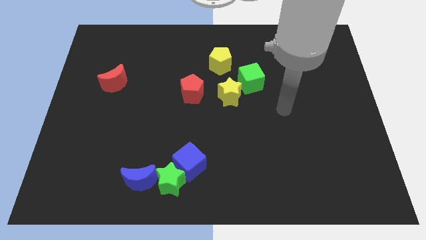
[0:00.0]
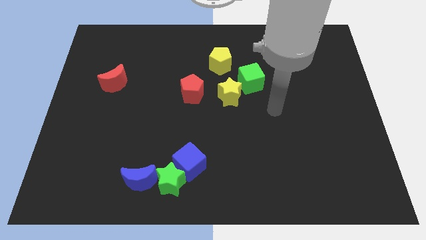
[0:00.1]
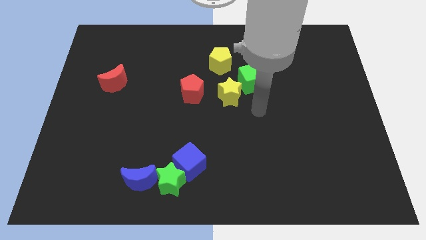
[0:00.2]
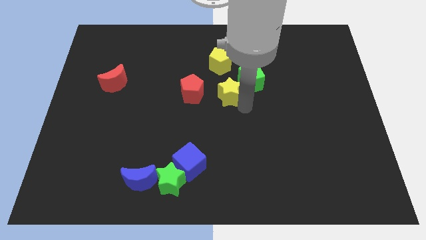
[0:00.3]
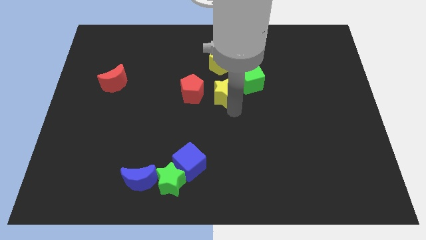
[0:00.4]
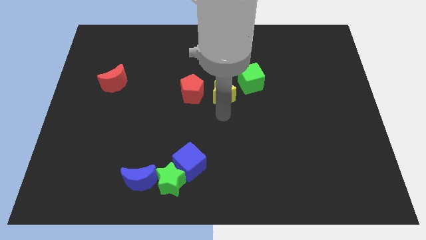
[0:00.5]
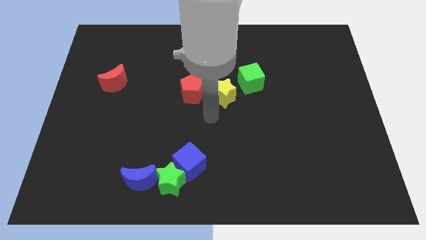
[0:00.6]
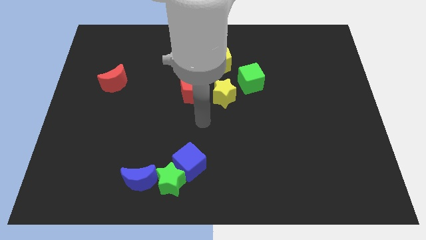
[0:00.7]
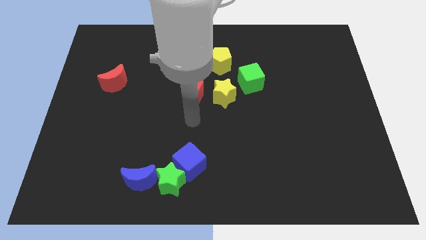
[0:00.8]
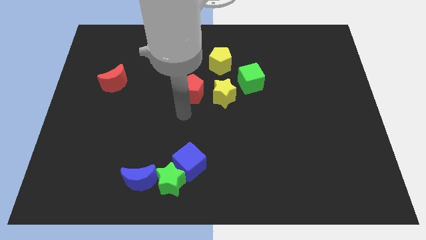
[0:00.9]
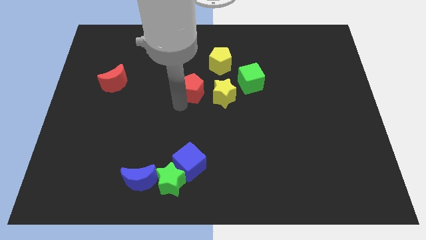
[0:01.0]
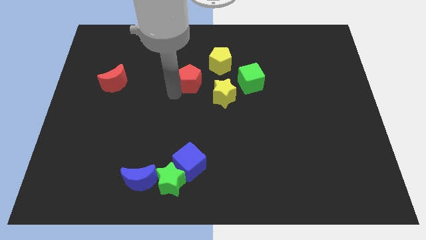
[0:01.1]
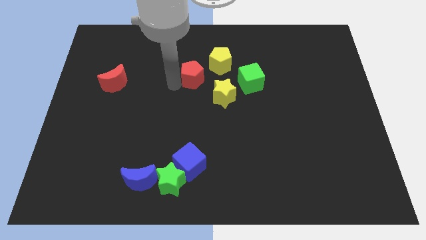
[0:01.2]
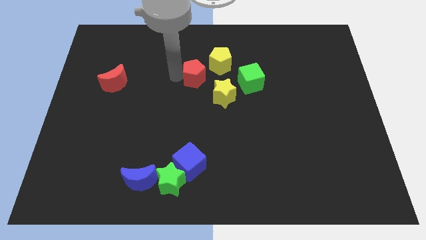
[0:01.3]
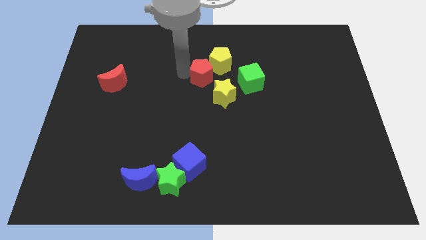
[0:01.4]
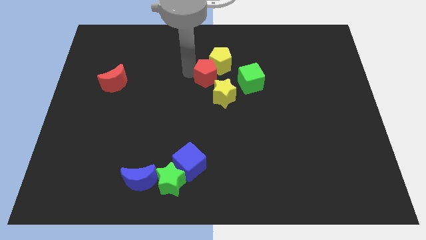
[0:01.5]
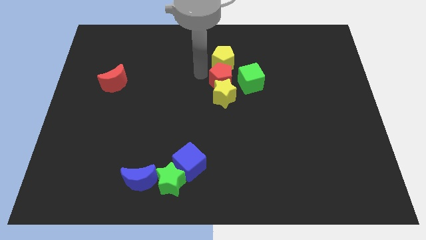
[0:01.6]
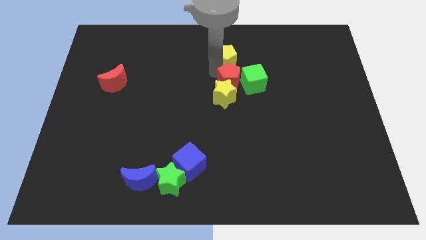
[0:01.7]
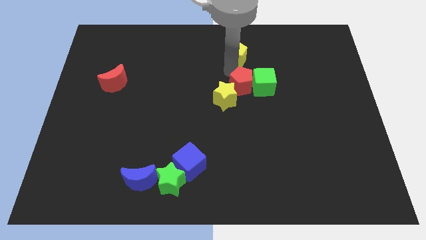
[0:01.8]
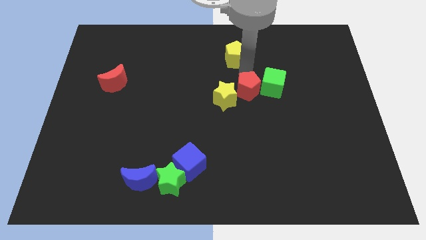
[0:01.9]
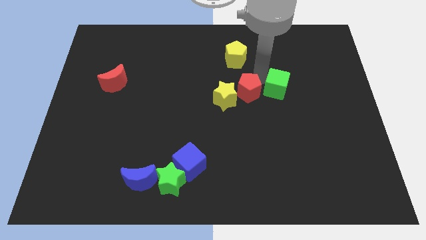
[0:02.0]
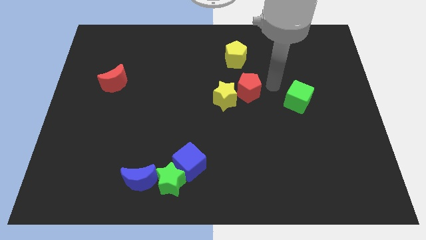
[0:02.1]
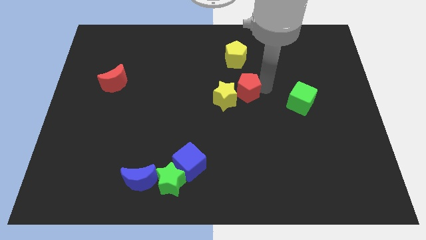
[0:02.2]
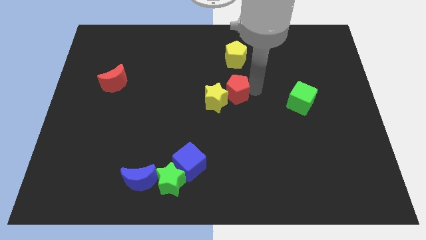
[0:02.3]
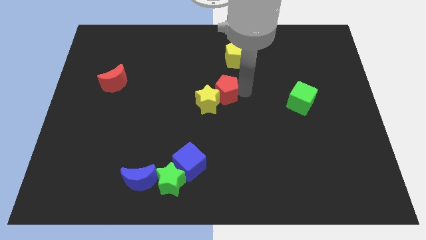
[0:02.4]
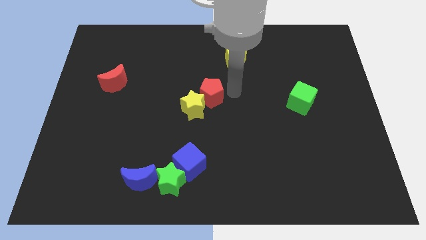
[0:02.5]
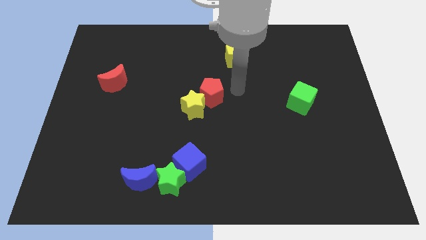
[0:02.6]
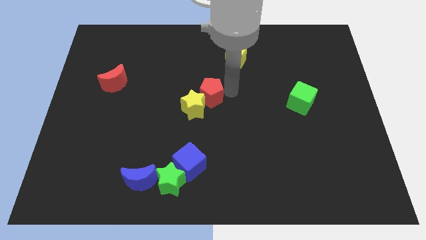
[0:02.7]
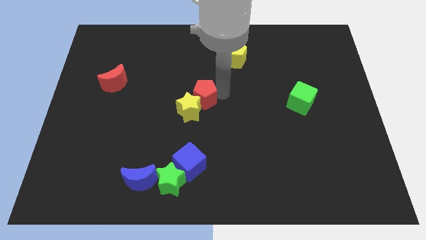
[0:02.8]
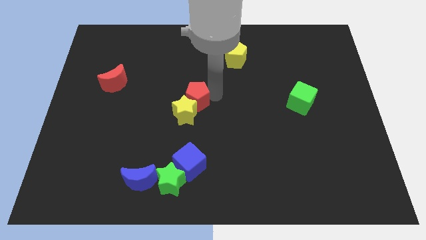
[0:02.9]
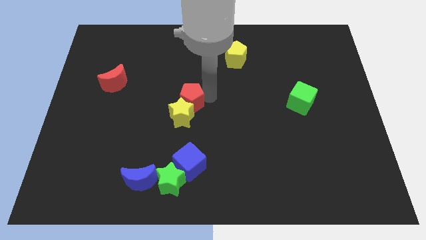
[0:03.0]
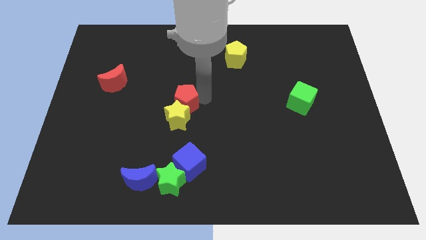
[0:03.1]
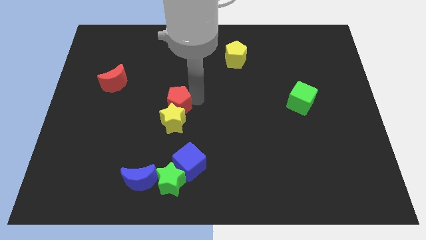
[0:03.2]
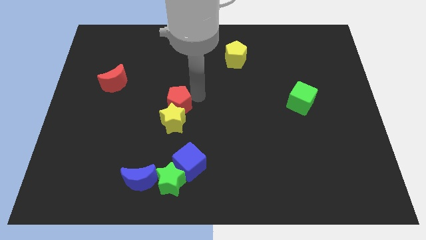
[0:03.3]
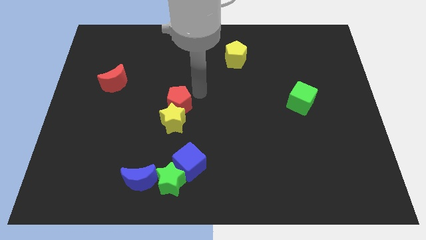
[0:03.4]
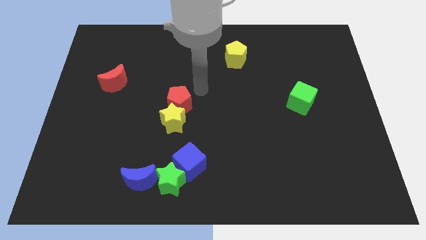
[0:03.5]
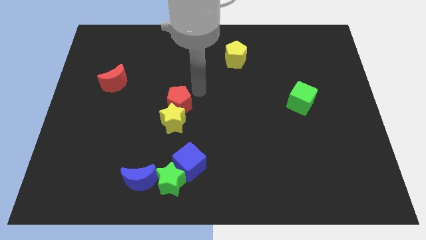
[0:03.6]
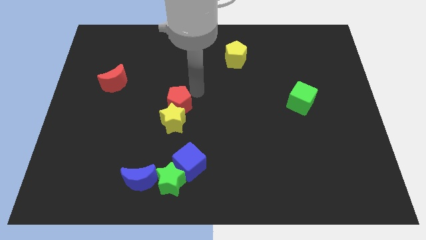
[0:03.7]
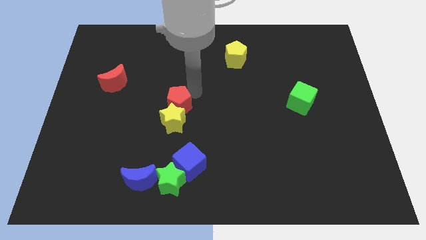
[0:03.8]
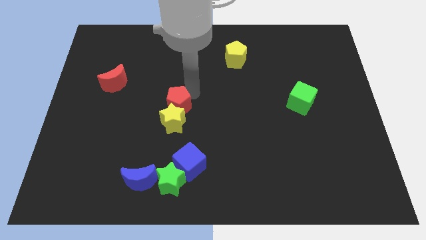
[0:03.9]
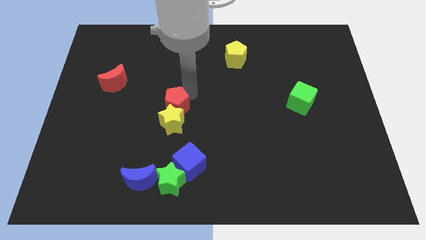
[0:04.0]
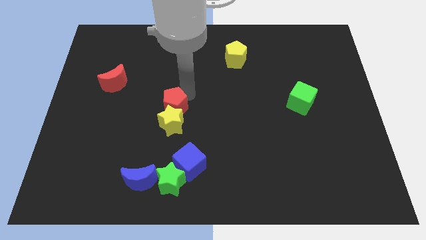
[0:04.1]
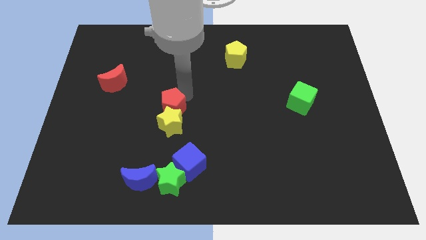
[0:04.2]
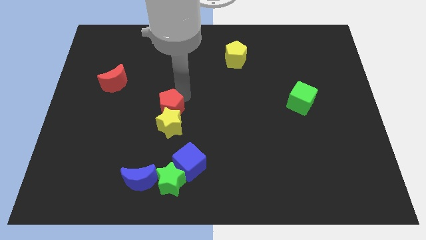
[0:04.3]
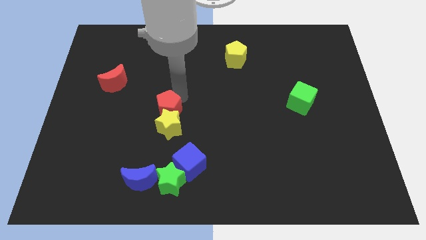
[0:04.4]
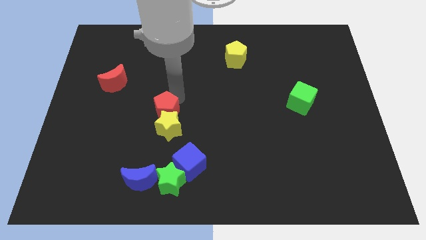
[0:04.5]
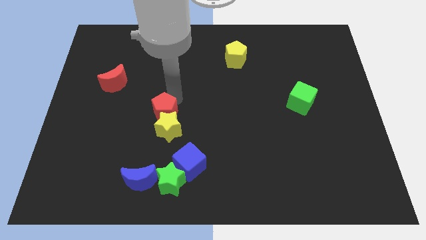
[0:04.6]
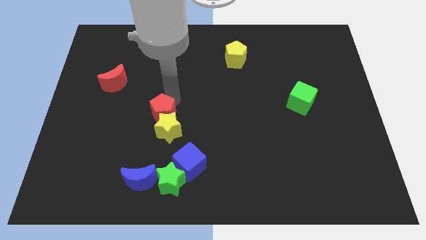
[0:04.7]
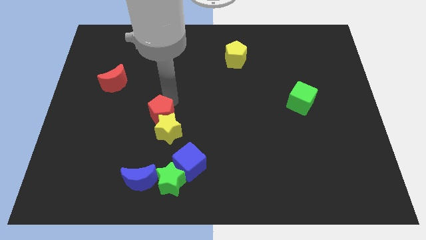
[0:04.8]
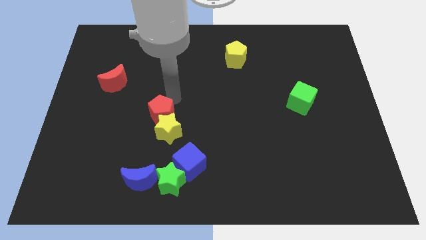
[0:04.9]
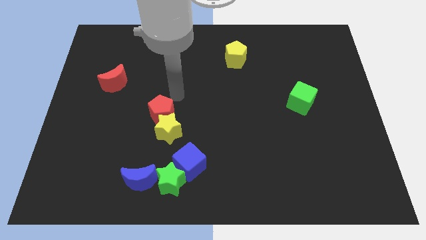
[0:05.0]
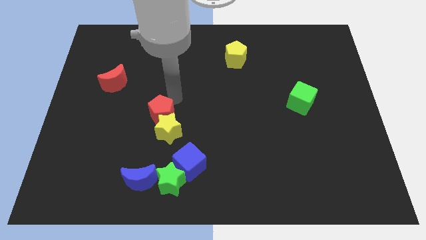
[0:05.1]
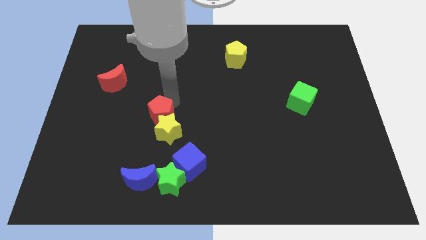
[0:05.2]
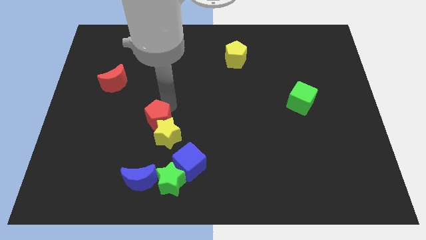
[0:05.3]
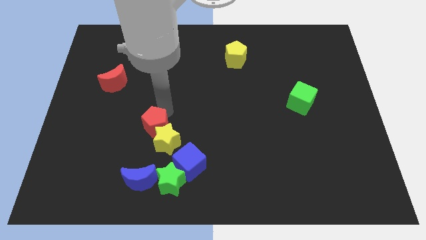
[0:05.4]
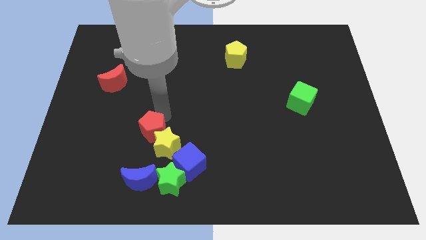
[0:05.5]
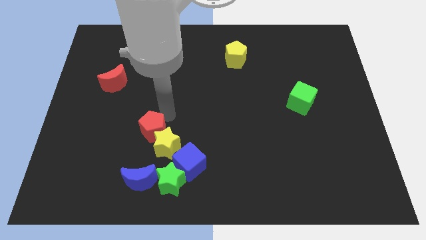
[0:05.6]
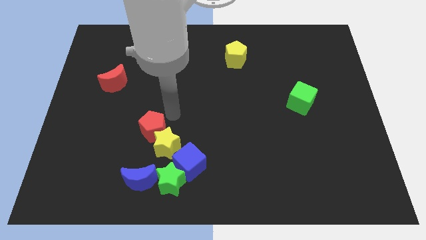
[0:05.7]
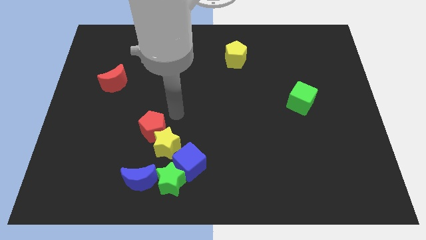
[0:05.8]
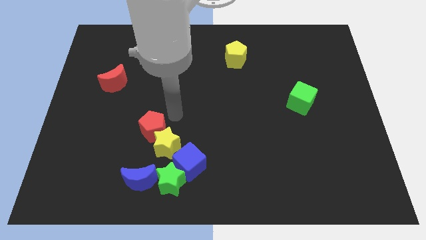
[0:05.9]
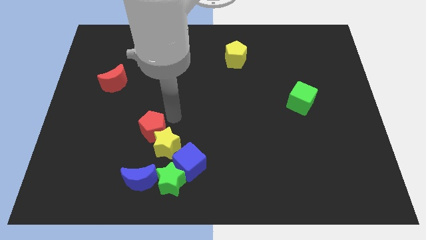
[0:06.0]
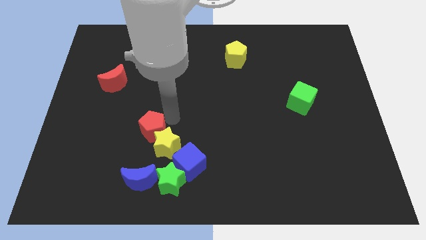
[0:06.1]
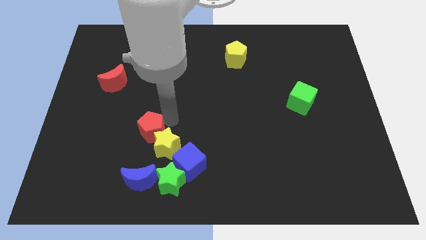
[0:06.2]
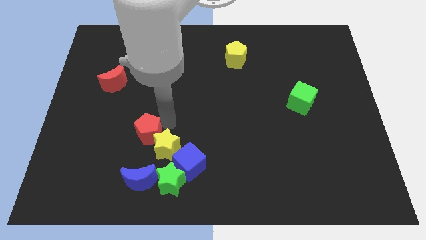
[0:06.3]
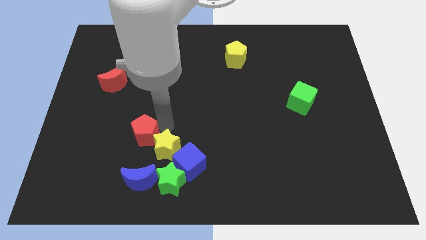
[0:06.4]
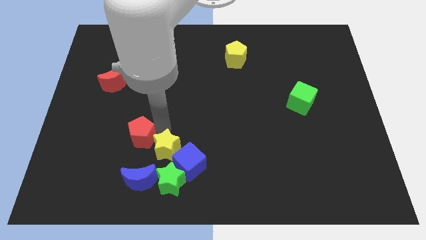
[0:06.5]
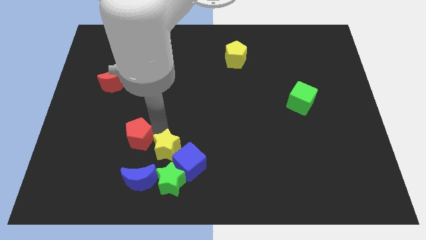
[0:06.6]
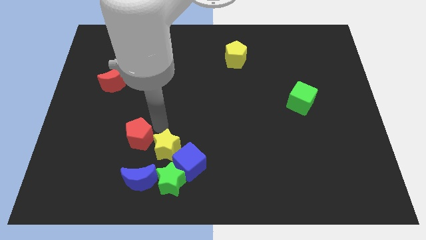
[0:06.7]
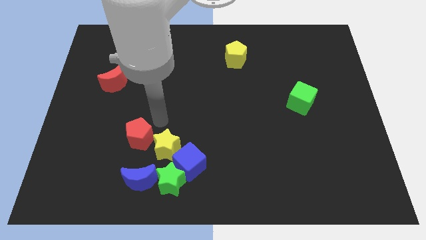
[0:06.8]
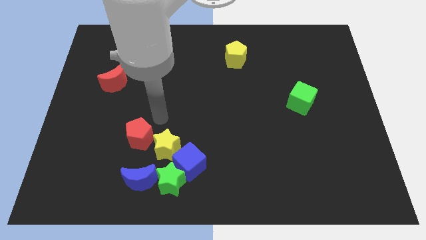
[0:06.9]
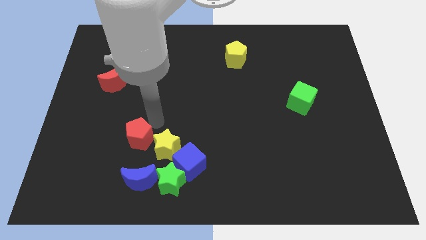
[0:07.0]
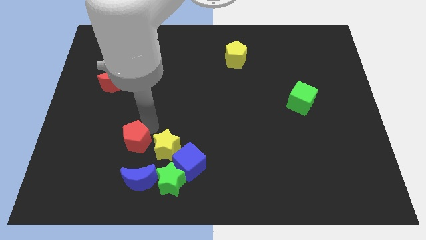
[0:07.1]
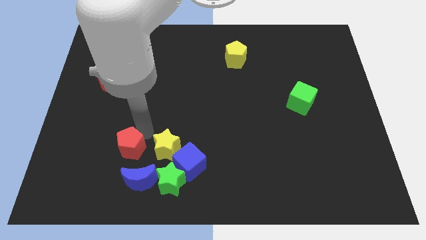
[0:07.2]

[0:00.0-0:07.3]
move the red pentagon to the top left of the blue moon
